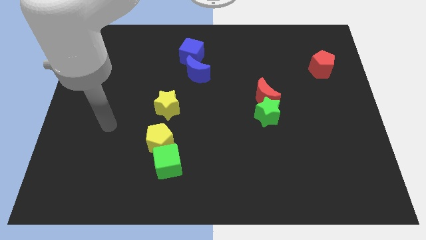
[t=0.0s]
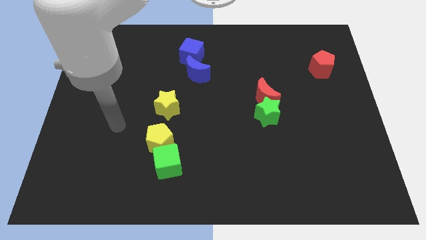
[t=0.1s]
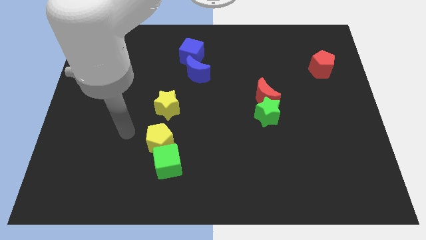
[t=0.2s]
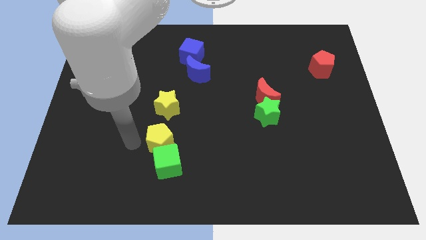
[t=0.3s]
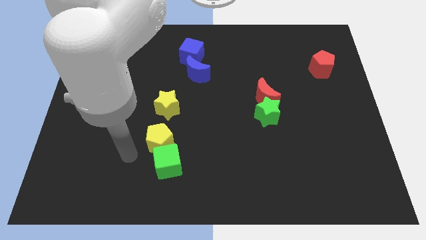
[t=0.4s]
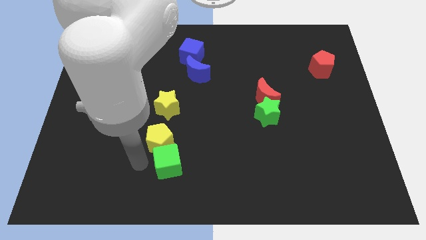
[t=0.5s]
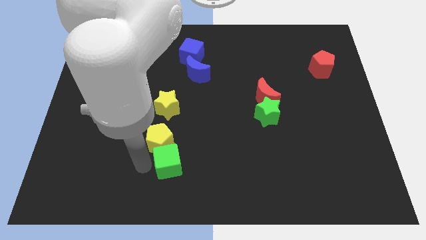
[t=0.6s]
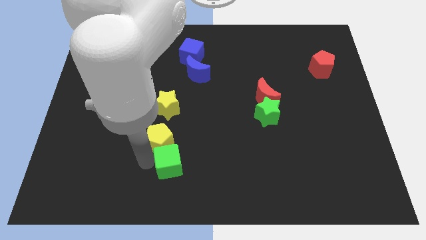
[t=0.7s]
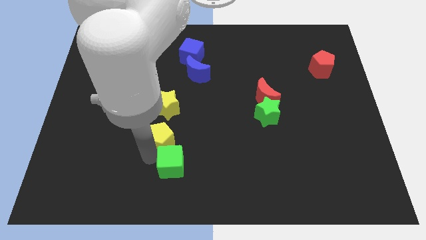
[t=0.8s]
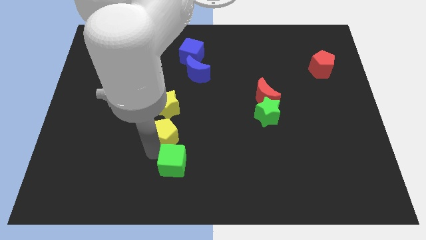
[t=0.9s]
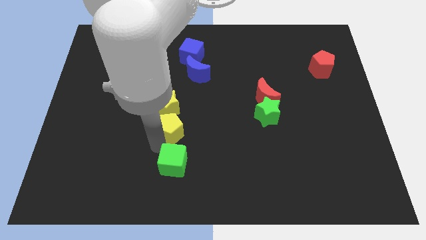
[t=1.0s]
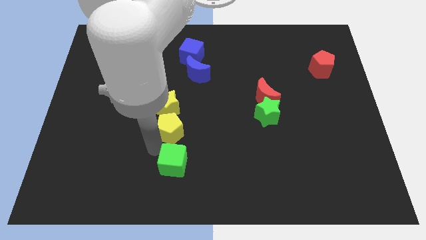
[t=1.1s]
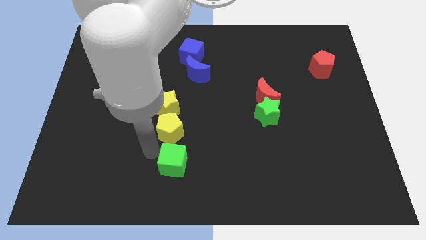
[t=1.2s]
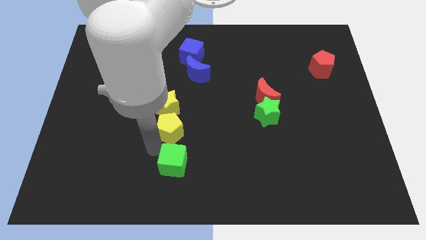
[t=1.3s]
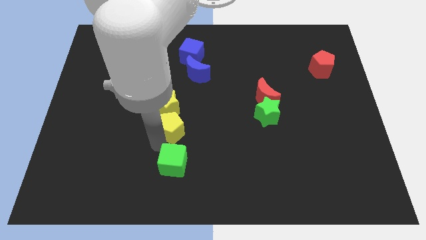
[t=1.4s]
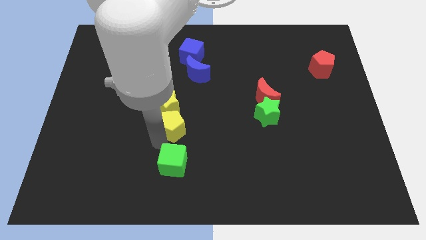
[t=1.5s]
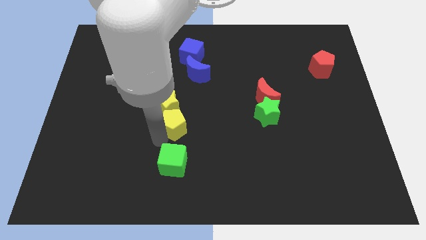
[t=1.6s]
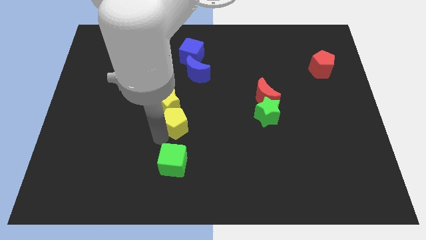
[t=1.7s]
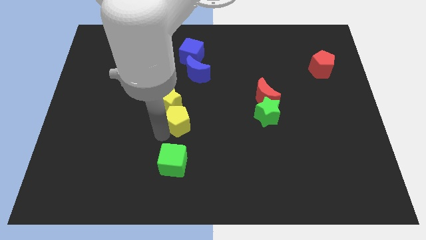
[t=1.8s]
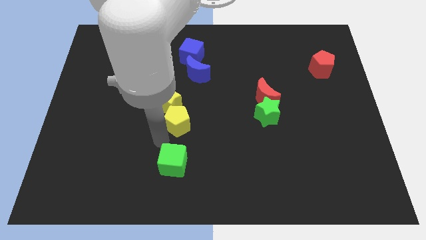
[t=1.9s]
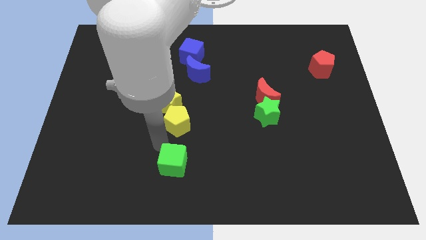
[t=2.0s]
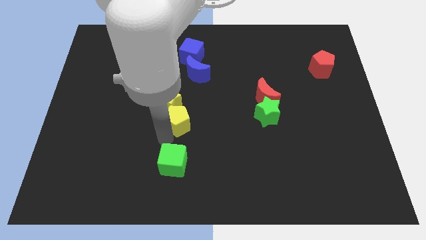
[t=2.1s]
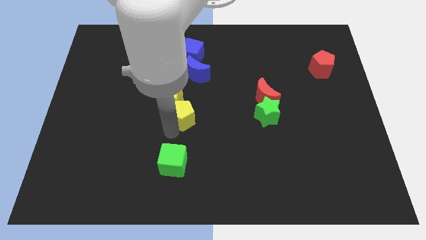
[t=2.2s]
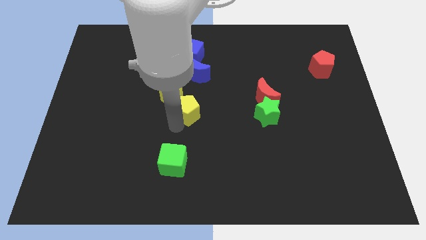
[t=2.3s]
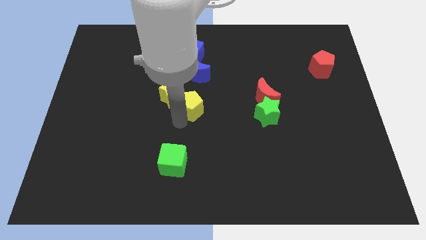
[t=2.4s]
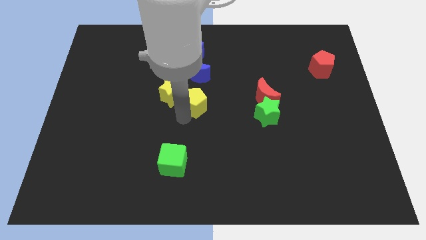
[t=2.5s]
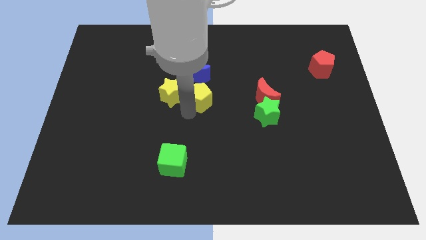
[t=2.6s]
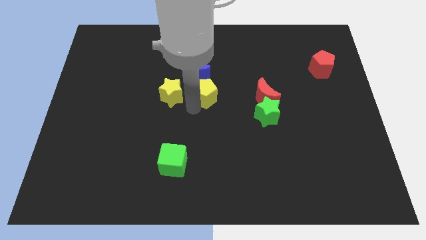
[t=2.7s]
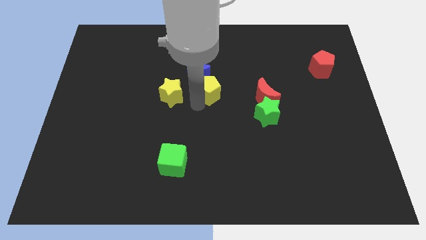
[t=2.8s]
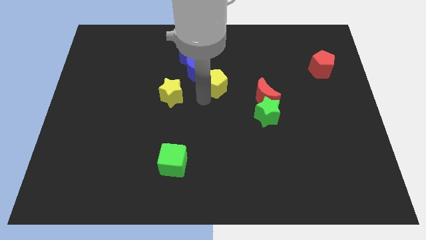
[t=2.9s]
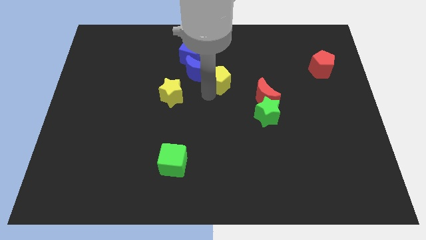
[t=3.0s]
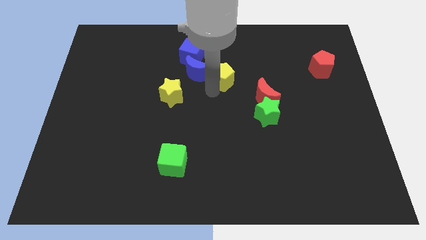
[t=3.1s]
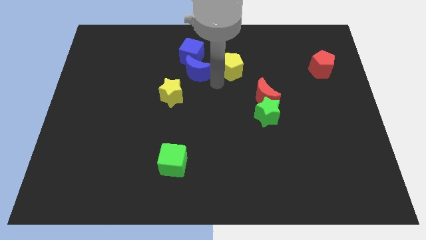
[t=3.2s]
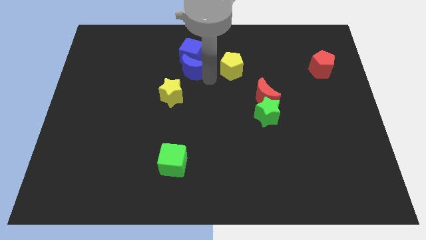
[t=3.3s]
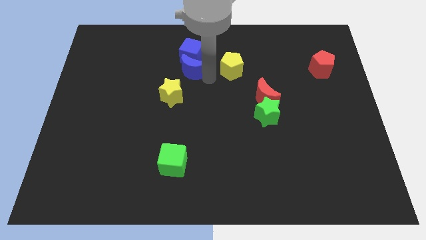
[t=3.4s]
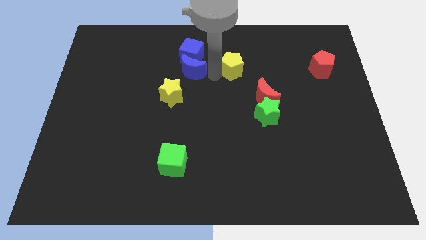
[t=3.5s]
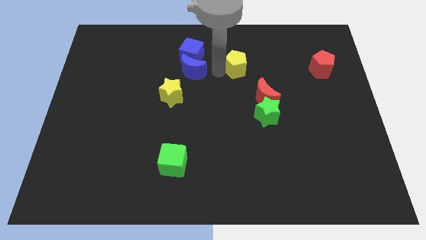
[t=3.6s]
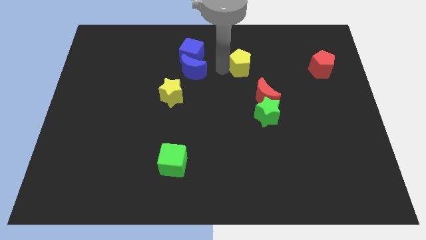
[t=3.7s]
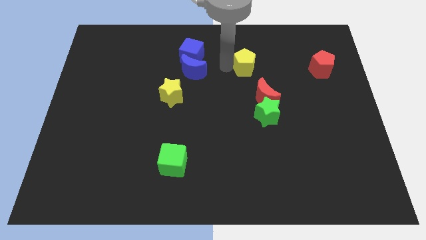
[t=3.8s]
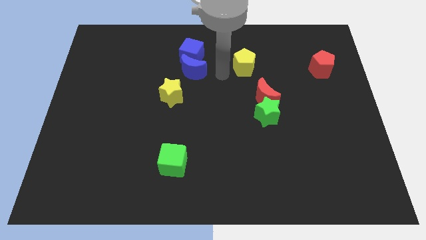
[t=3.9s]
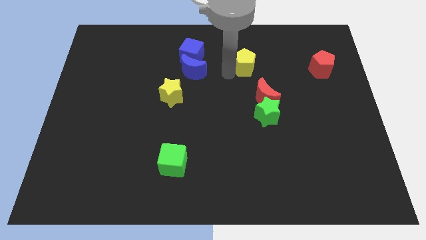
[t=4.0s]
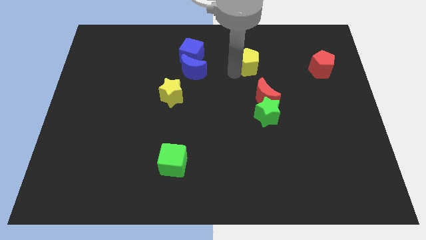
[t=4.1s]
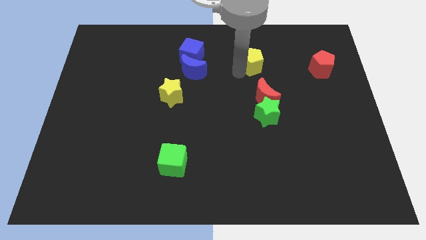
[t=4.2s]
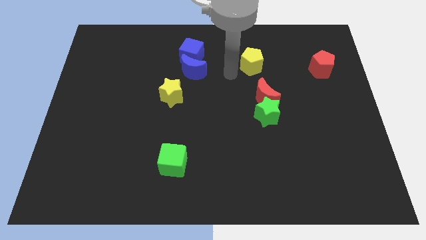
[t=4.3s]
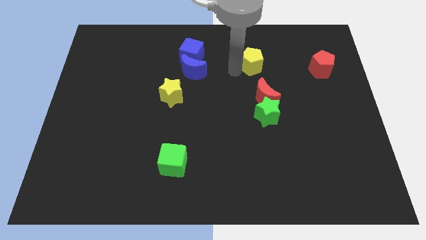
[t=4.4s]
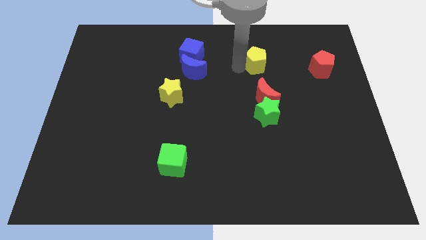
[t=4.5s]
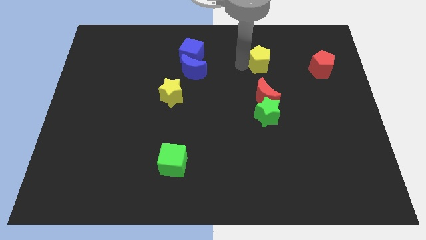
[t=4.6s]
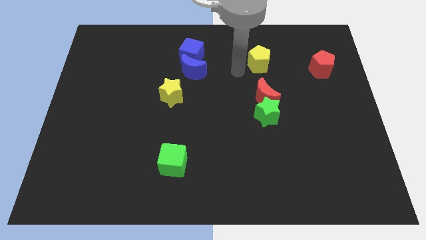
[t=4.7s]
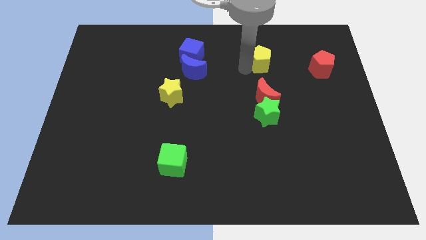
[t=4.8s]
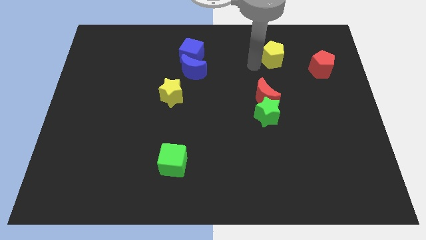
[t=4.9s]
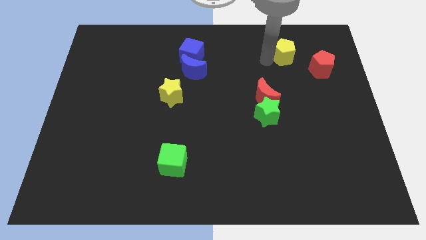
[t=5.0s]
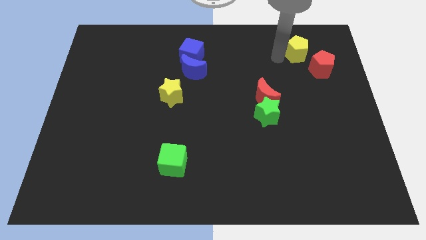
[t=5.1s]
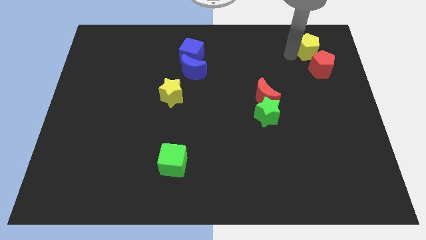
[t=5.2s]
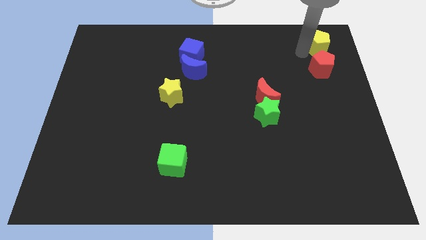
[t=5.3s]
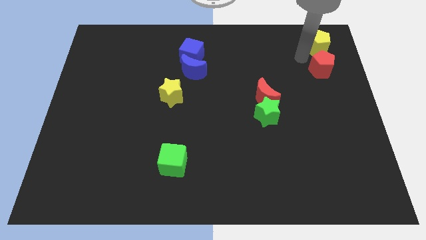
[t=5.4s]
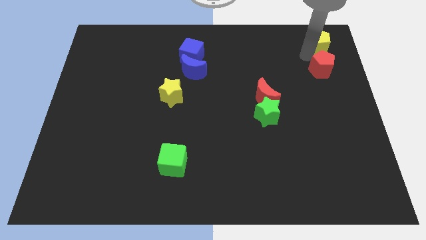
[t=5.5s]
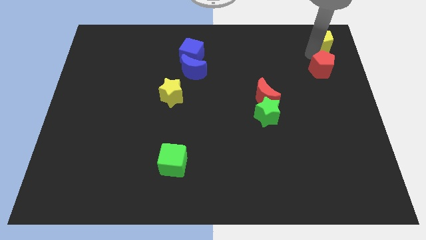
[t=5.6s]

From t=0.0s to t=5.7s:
slide the yellow pentagon to the top right

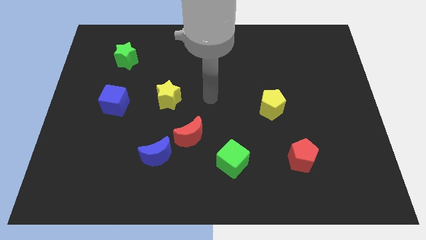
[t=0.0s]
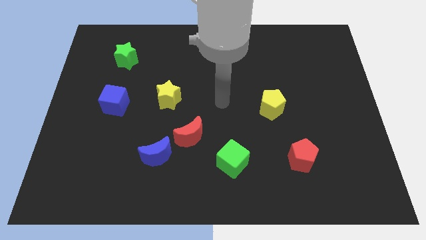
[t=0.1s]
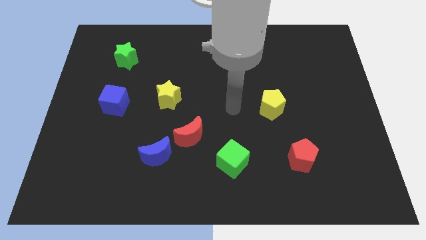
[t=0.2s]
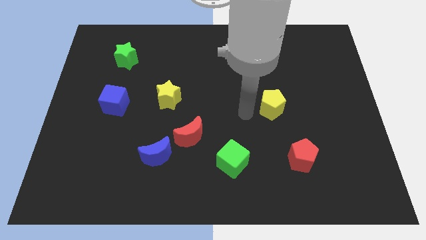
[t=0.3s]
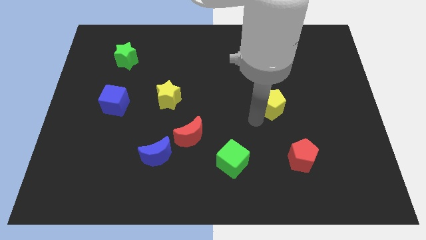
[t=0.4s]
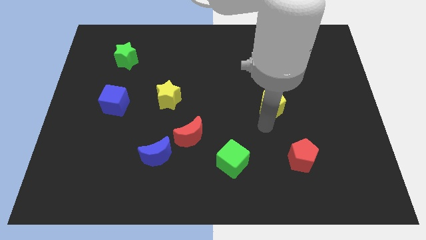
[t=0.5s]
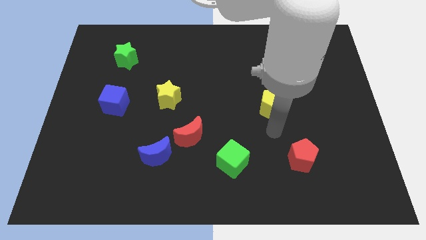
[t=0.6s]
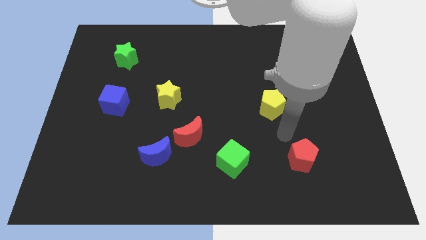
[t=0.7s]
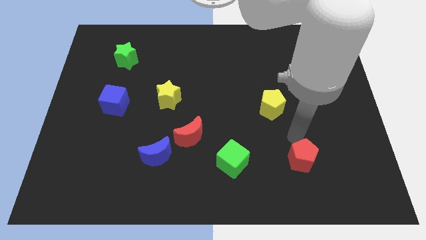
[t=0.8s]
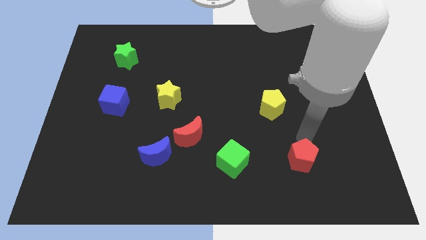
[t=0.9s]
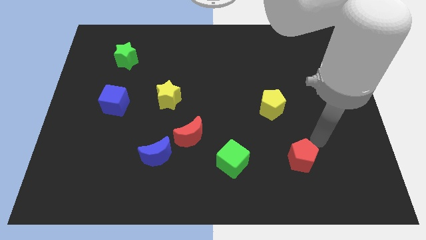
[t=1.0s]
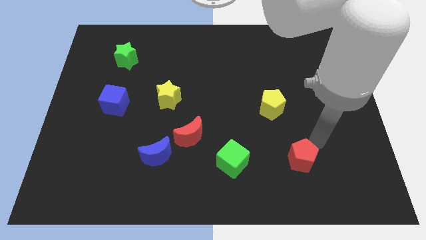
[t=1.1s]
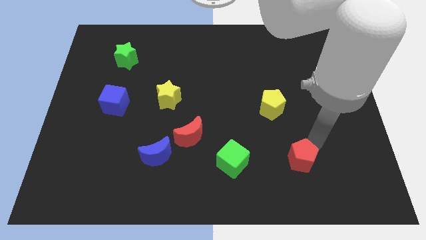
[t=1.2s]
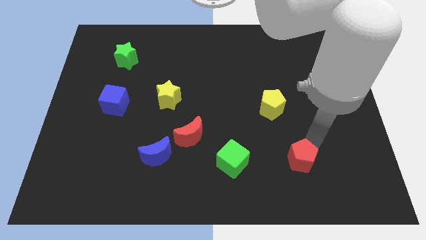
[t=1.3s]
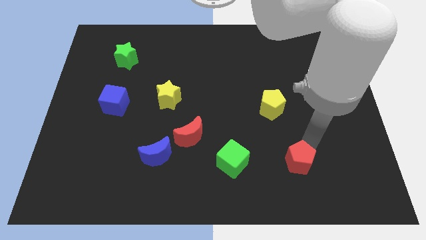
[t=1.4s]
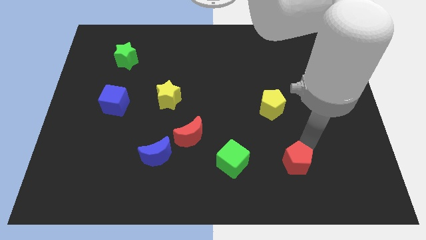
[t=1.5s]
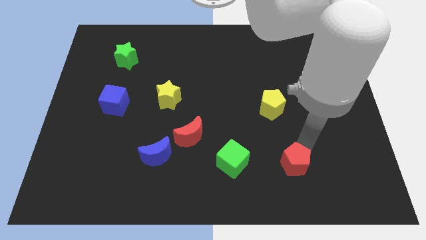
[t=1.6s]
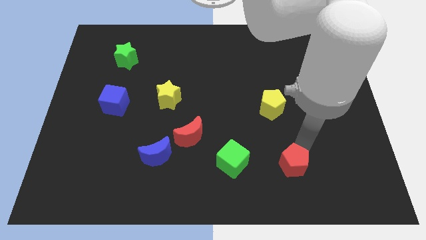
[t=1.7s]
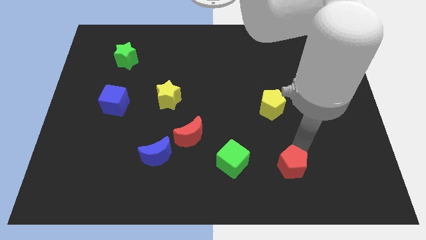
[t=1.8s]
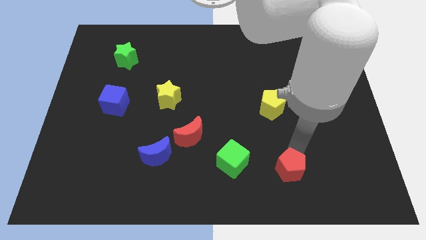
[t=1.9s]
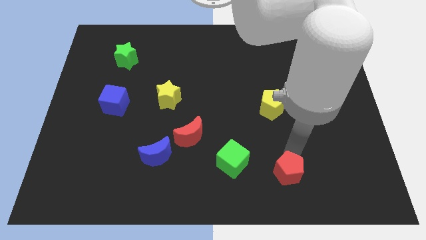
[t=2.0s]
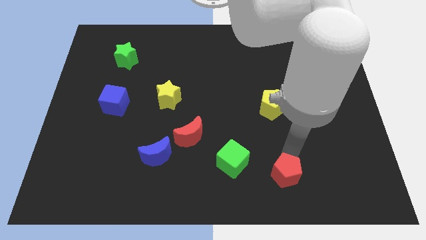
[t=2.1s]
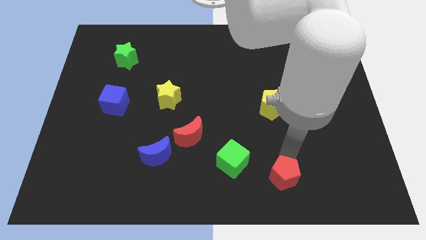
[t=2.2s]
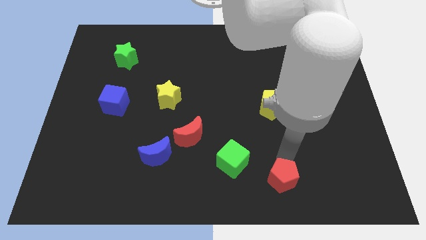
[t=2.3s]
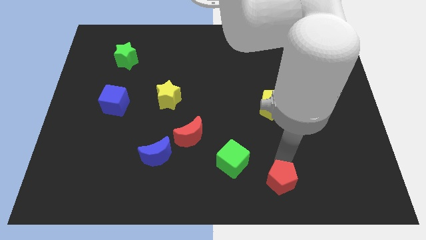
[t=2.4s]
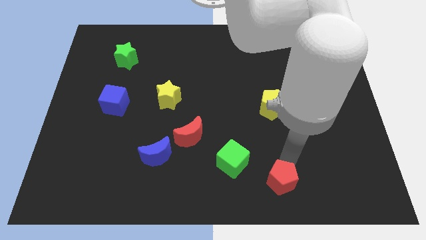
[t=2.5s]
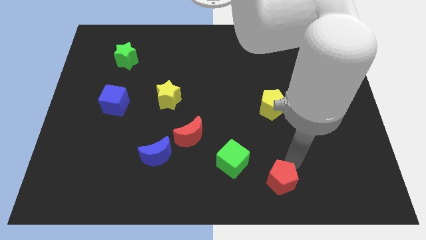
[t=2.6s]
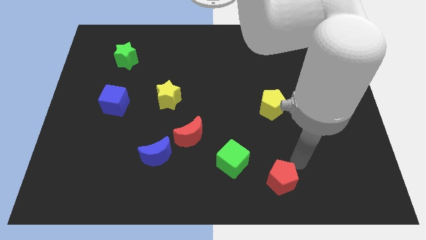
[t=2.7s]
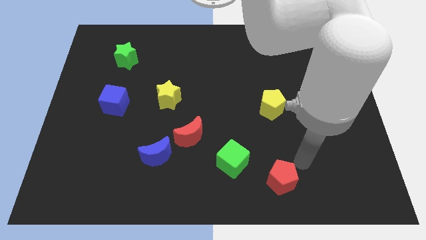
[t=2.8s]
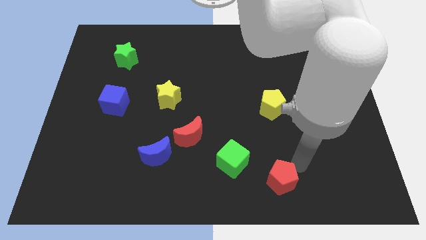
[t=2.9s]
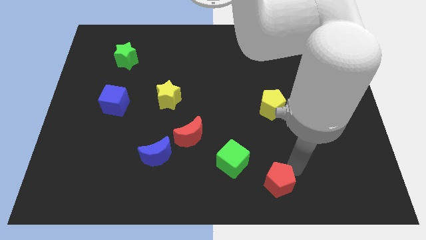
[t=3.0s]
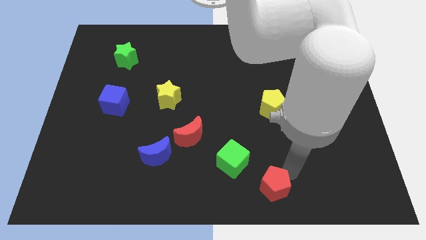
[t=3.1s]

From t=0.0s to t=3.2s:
slide the red pentagon to the bottom side
